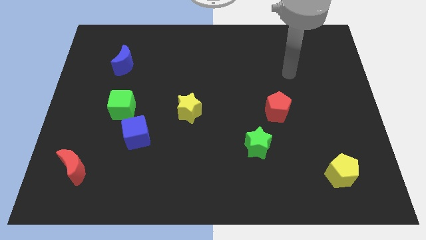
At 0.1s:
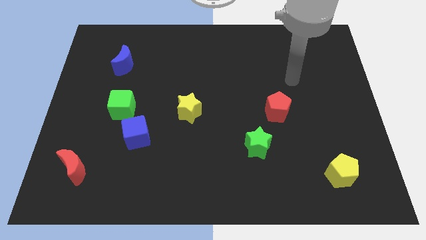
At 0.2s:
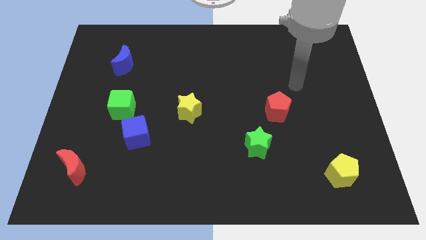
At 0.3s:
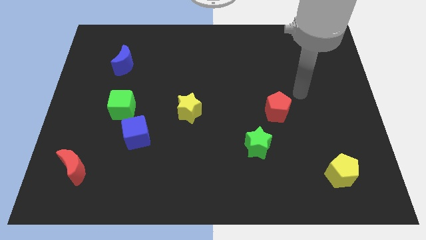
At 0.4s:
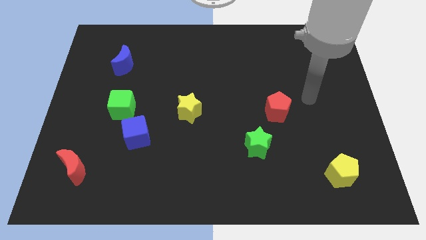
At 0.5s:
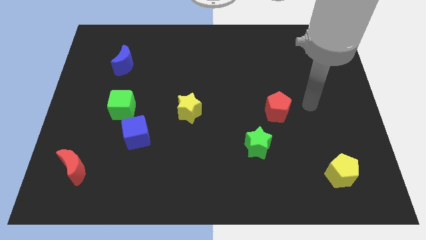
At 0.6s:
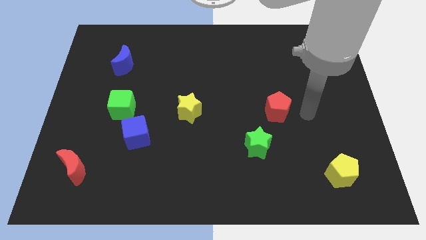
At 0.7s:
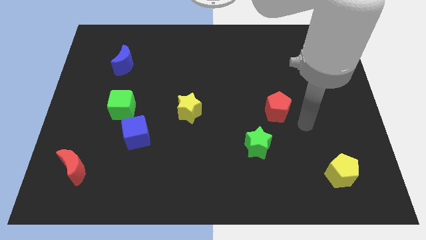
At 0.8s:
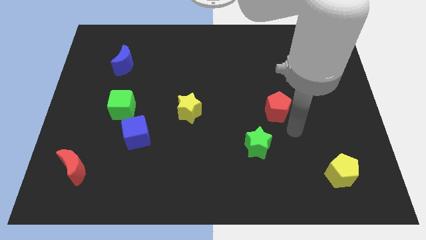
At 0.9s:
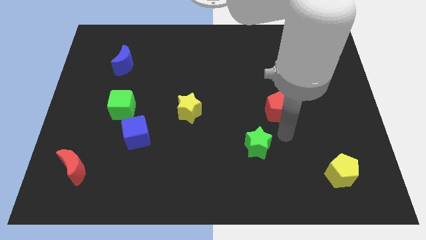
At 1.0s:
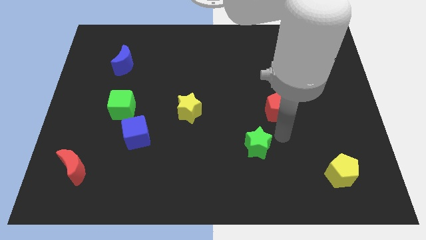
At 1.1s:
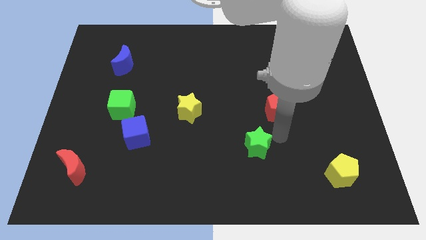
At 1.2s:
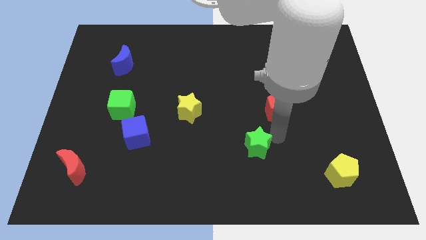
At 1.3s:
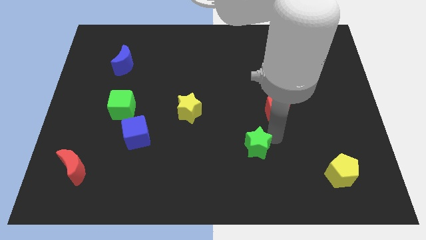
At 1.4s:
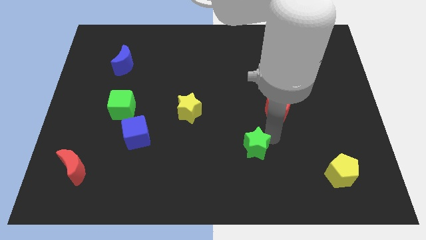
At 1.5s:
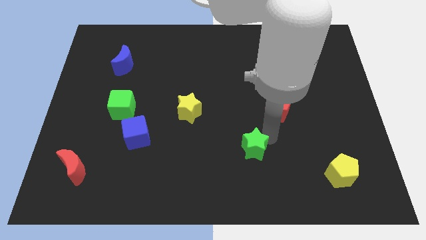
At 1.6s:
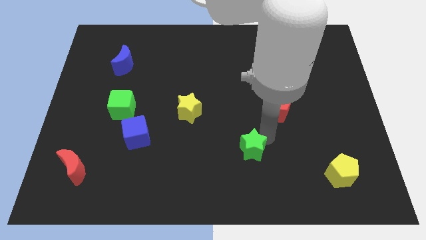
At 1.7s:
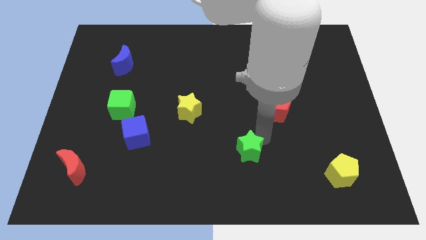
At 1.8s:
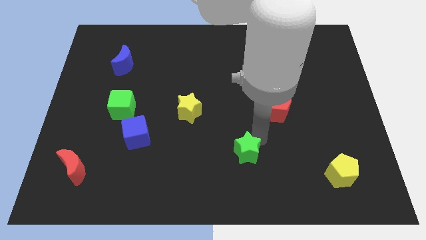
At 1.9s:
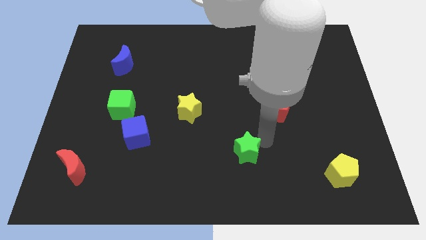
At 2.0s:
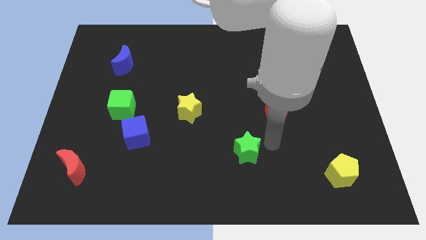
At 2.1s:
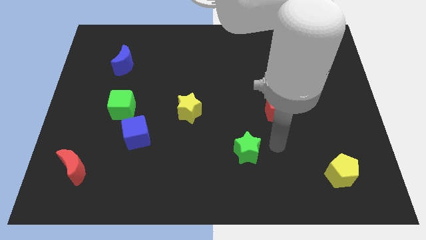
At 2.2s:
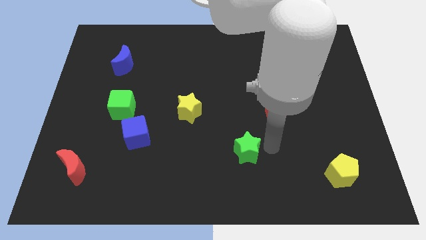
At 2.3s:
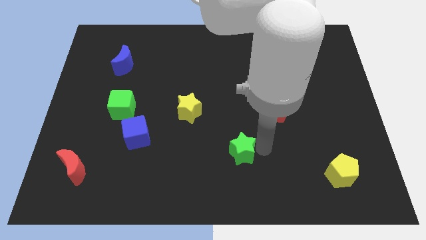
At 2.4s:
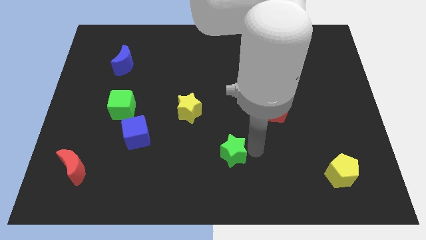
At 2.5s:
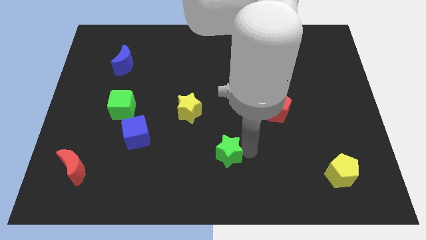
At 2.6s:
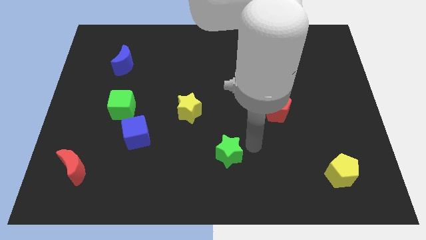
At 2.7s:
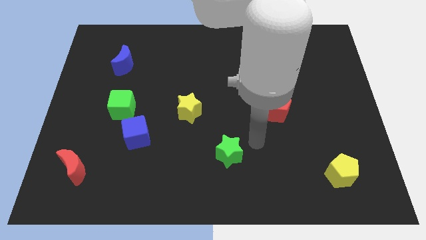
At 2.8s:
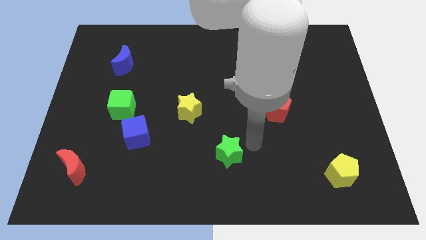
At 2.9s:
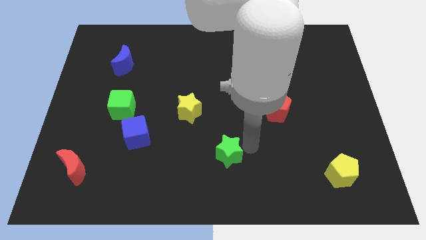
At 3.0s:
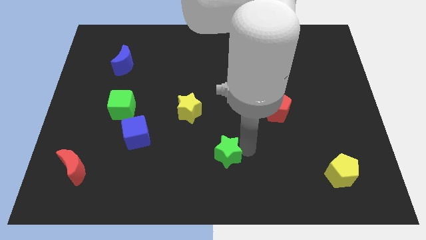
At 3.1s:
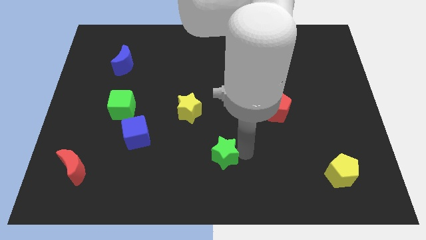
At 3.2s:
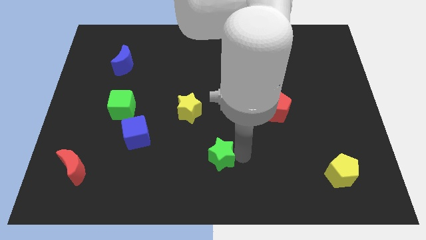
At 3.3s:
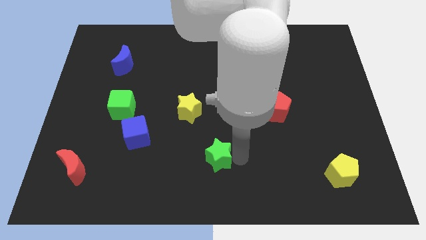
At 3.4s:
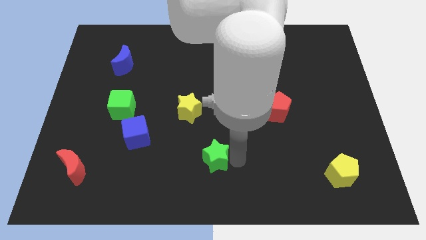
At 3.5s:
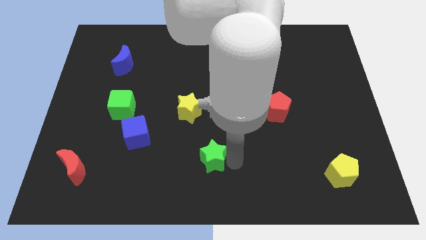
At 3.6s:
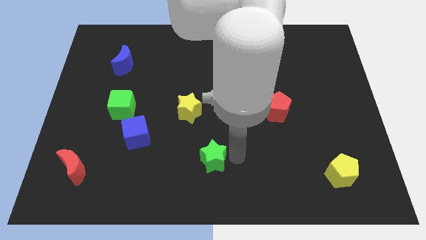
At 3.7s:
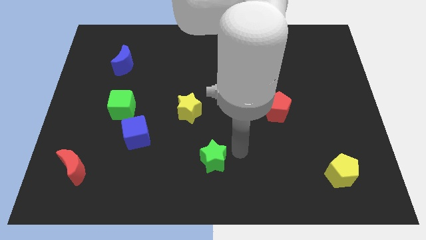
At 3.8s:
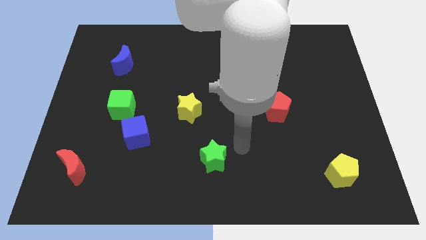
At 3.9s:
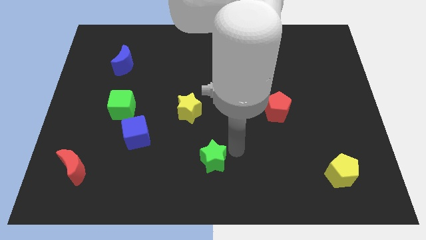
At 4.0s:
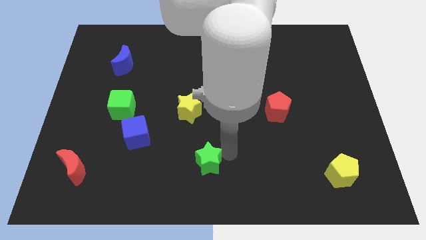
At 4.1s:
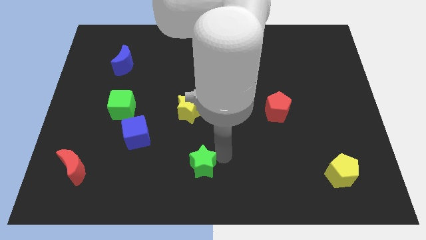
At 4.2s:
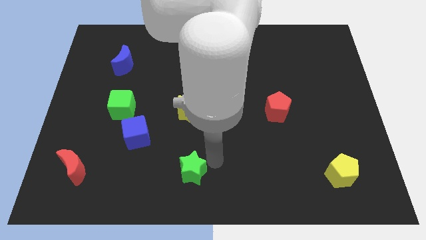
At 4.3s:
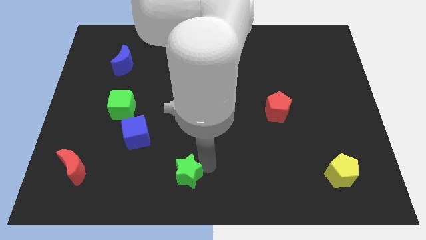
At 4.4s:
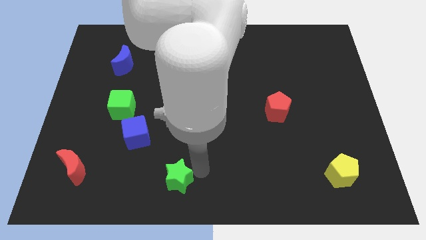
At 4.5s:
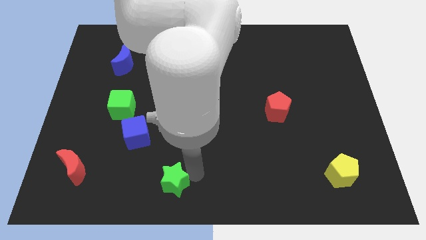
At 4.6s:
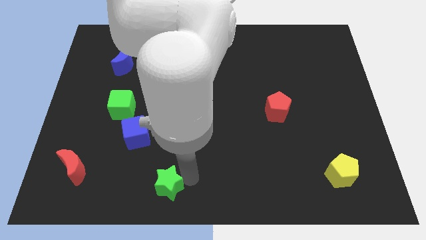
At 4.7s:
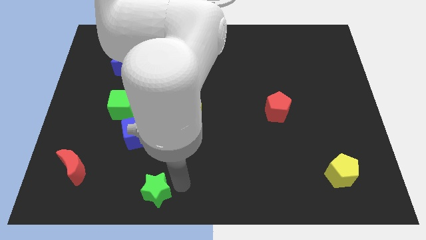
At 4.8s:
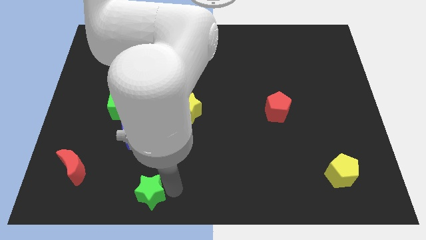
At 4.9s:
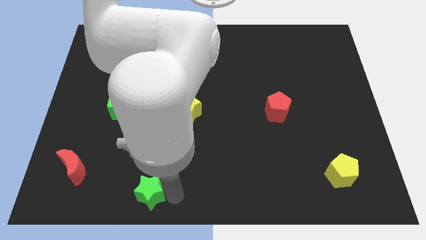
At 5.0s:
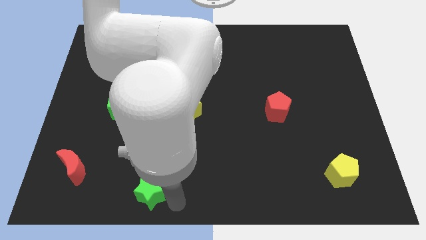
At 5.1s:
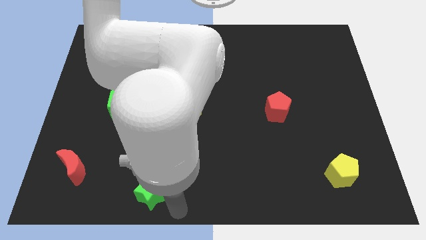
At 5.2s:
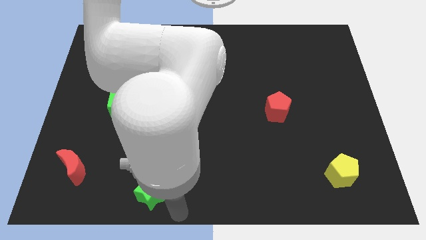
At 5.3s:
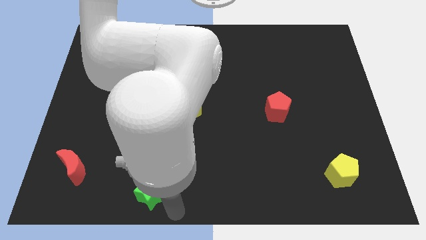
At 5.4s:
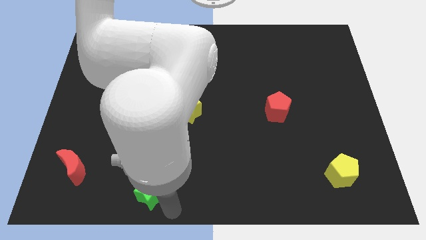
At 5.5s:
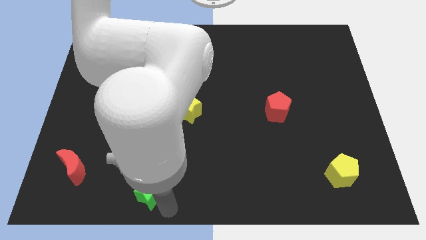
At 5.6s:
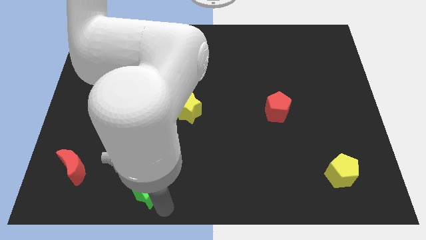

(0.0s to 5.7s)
move the green star to the bottom side of the blue cube

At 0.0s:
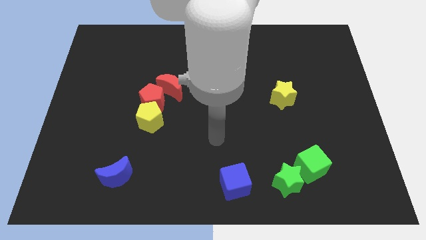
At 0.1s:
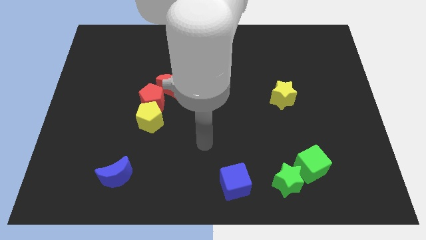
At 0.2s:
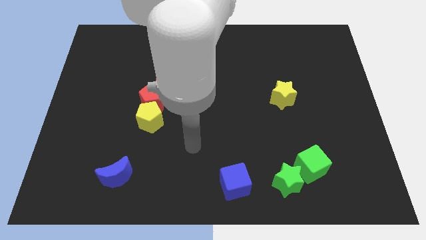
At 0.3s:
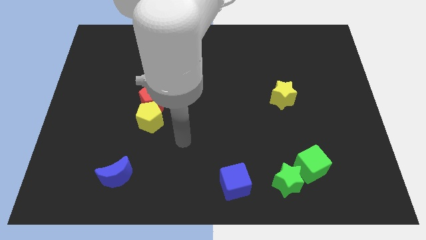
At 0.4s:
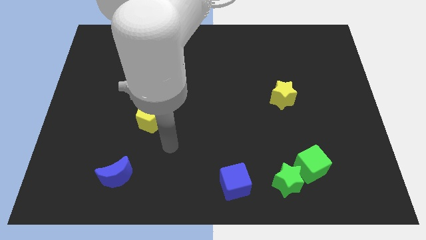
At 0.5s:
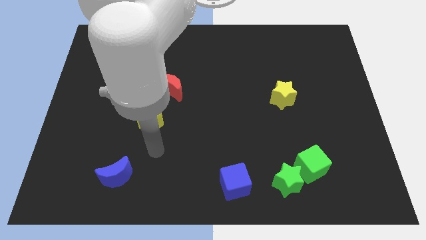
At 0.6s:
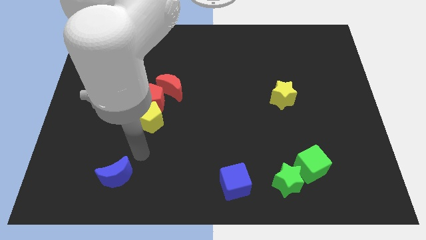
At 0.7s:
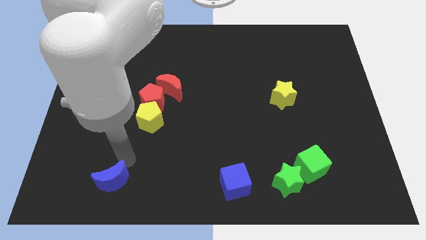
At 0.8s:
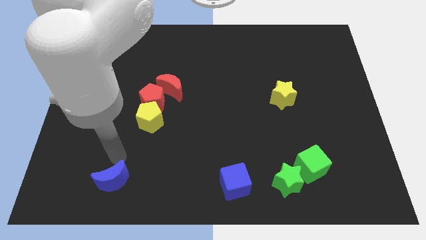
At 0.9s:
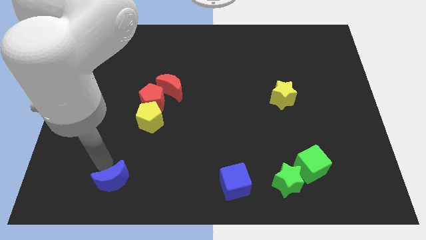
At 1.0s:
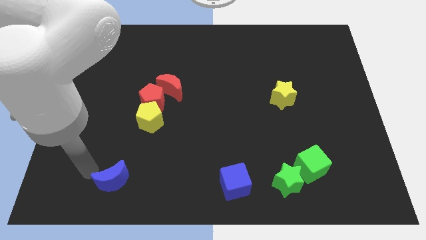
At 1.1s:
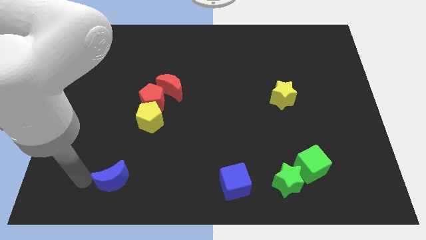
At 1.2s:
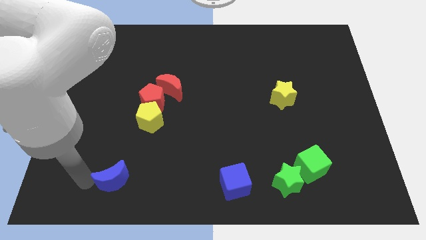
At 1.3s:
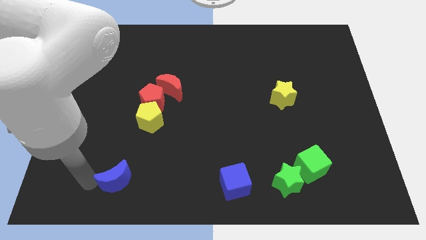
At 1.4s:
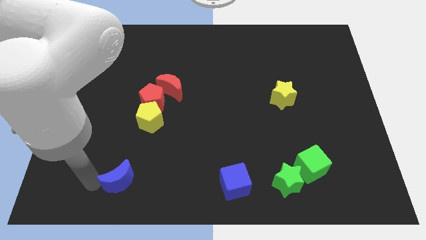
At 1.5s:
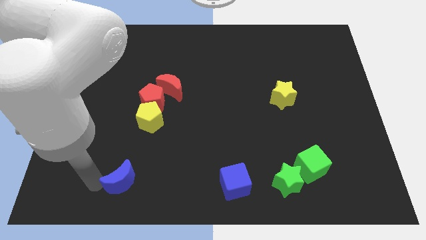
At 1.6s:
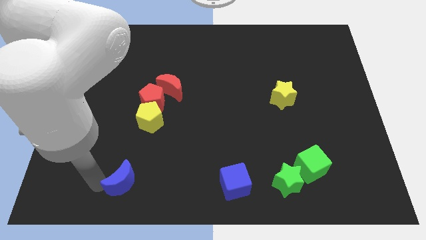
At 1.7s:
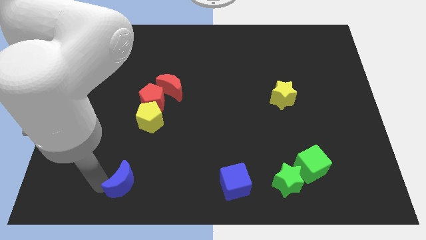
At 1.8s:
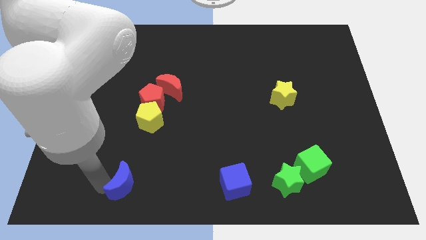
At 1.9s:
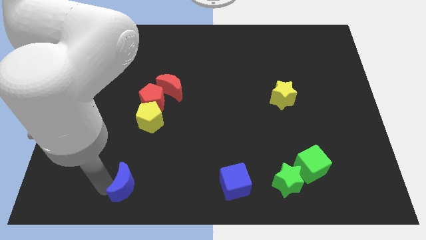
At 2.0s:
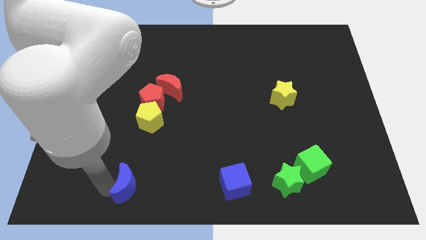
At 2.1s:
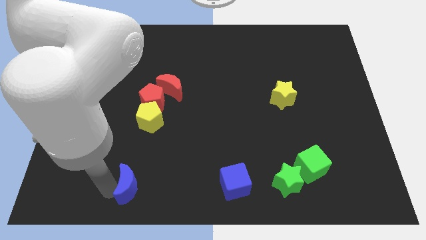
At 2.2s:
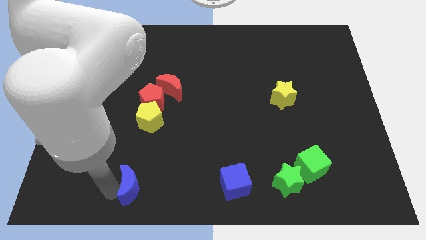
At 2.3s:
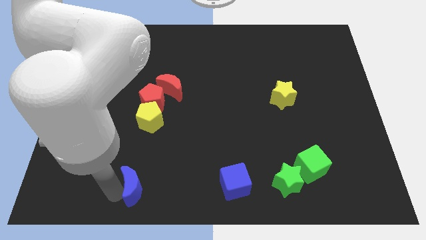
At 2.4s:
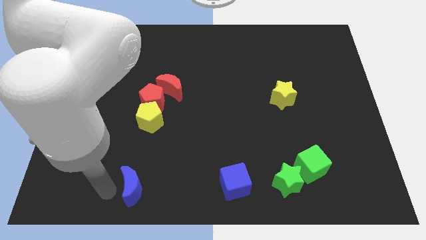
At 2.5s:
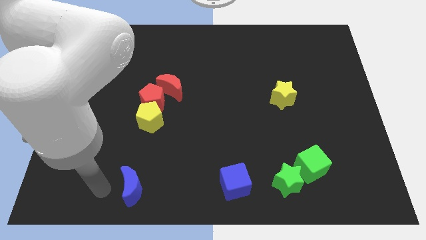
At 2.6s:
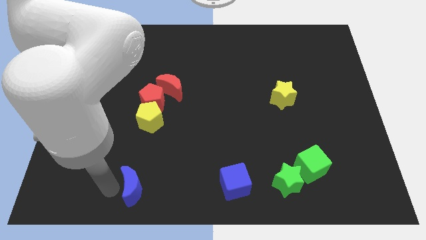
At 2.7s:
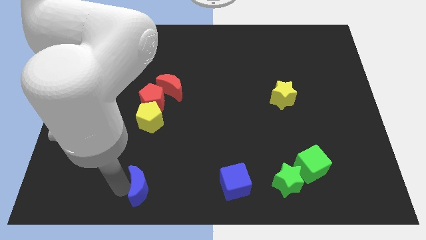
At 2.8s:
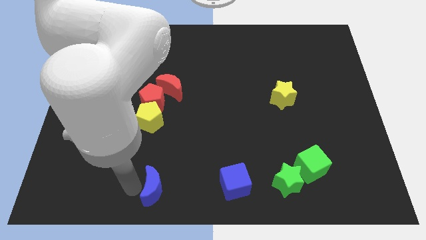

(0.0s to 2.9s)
put the blue moon left of the blue cube
